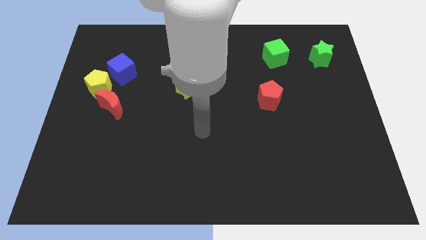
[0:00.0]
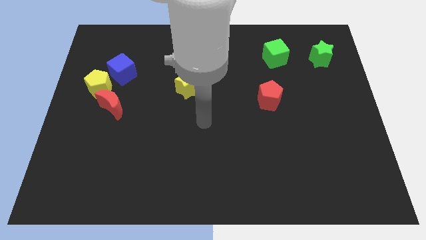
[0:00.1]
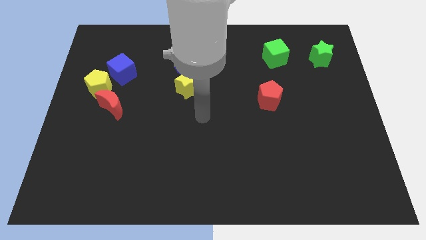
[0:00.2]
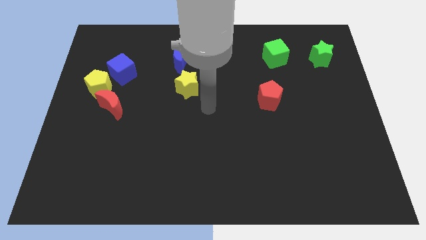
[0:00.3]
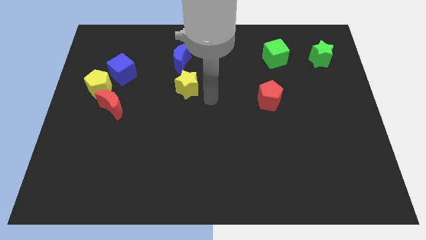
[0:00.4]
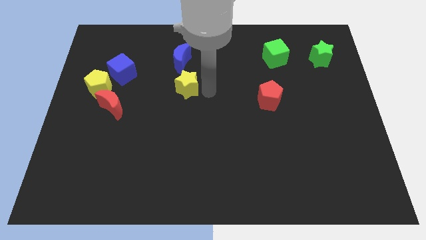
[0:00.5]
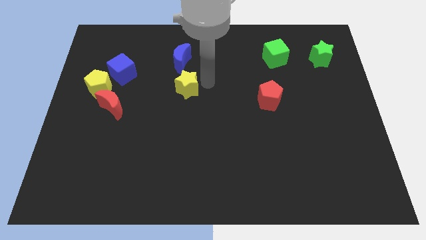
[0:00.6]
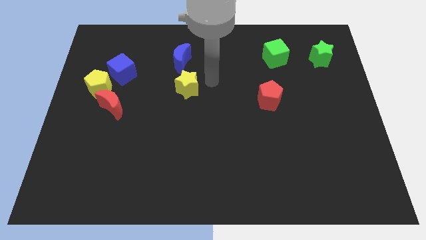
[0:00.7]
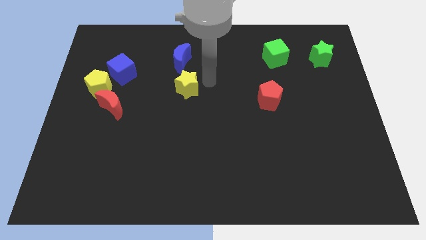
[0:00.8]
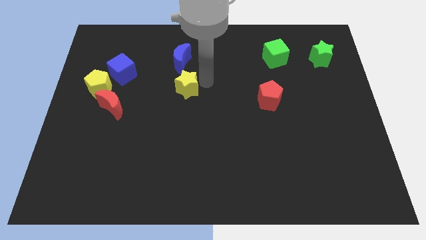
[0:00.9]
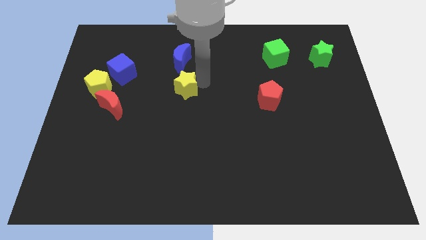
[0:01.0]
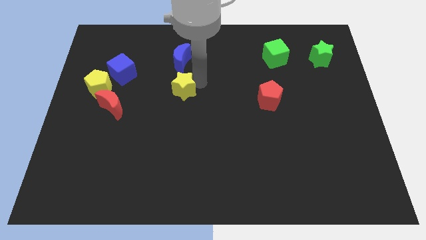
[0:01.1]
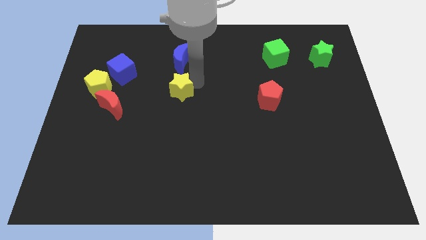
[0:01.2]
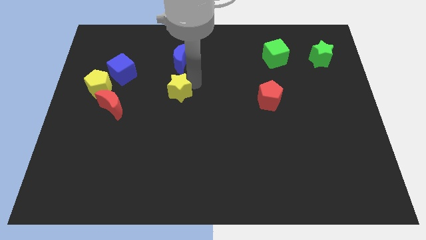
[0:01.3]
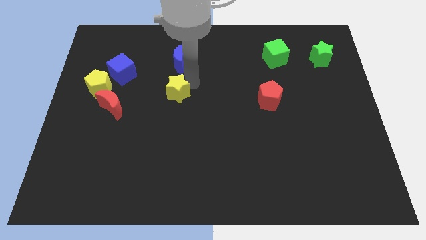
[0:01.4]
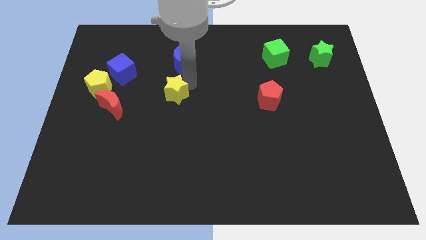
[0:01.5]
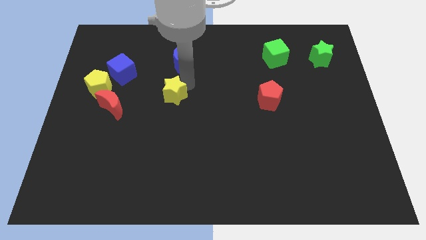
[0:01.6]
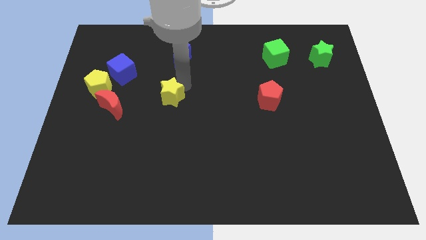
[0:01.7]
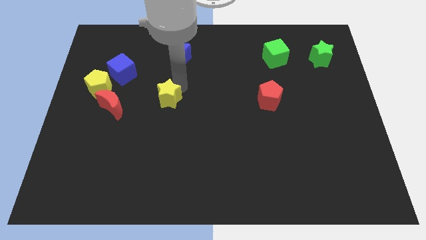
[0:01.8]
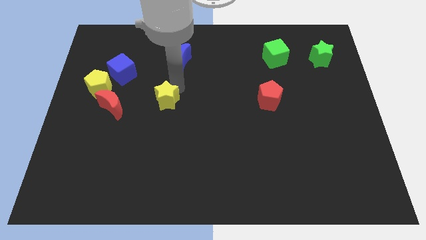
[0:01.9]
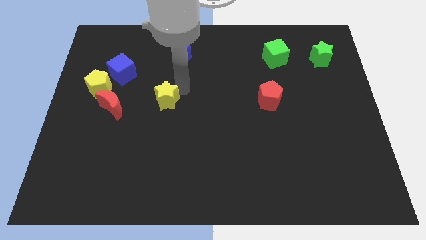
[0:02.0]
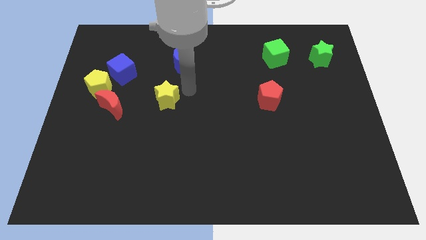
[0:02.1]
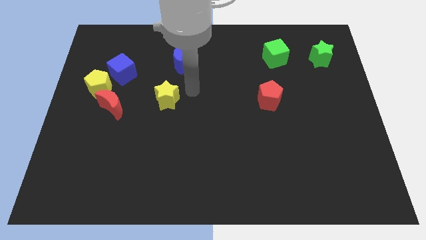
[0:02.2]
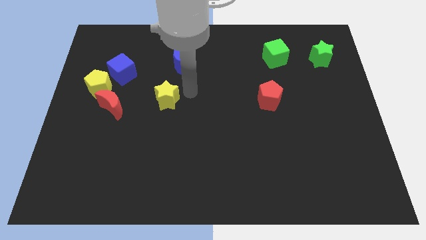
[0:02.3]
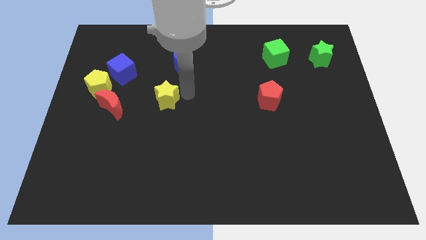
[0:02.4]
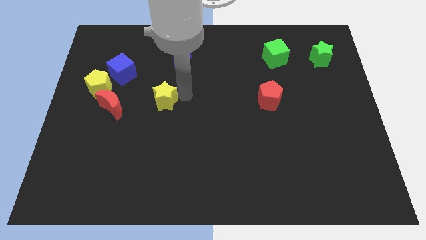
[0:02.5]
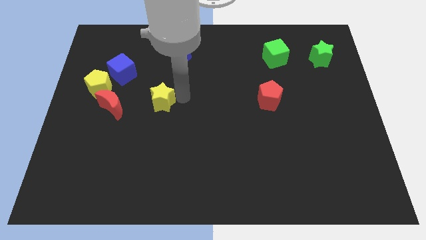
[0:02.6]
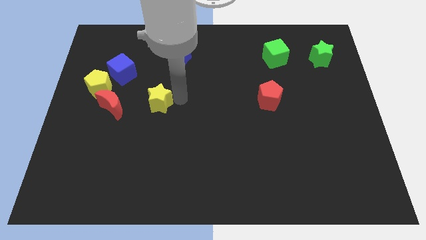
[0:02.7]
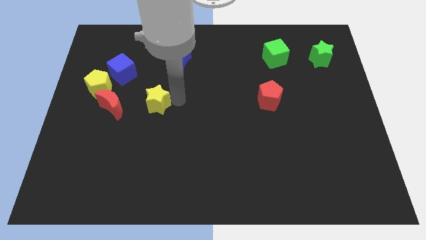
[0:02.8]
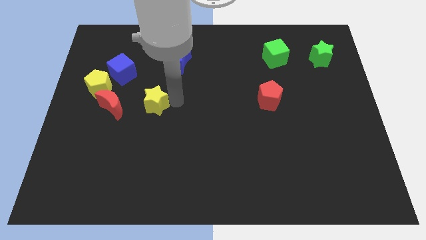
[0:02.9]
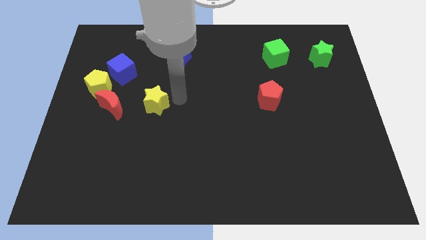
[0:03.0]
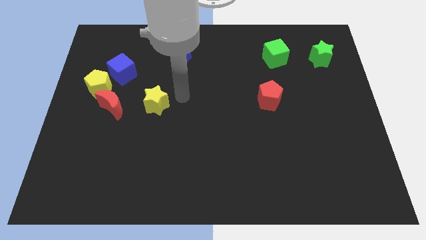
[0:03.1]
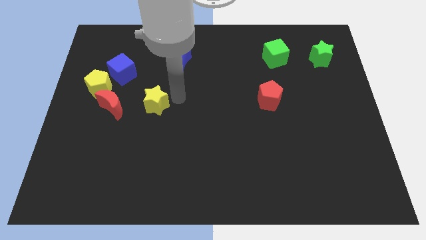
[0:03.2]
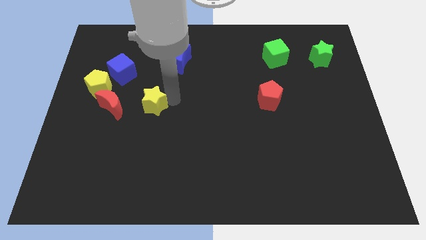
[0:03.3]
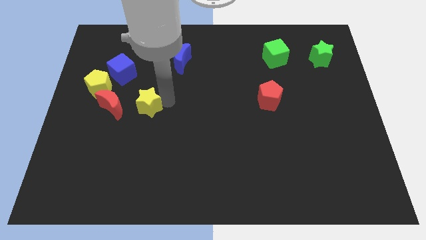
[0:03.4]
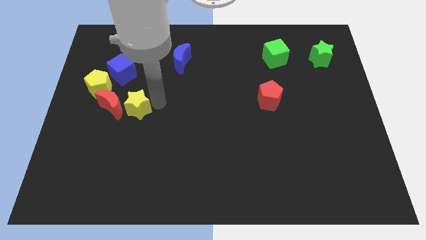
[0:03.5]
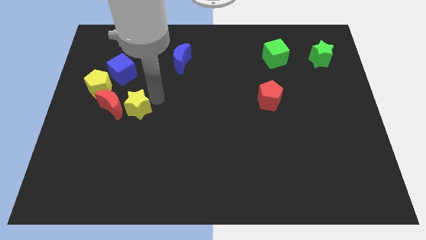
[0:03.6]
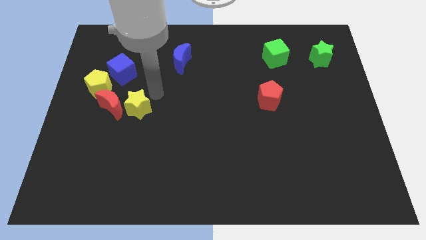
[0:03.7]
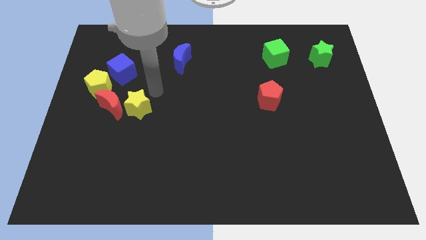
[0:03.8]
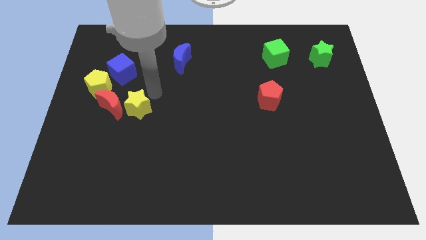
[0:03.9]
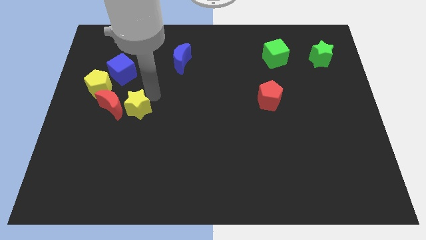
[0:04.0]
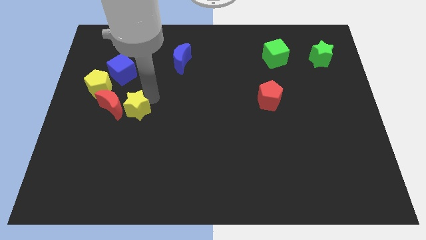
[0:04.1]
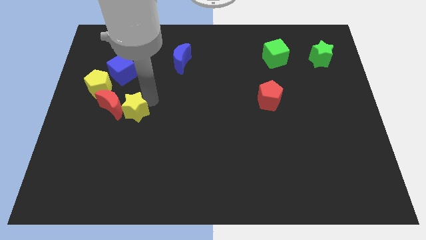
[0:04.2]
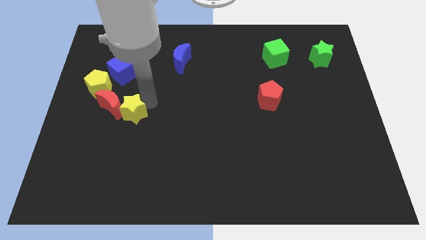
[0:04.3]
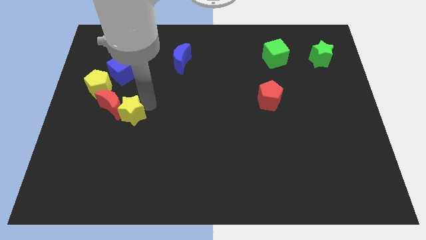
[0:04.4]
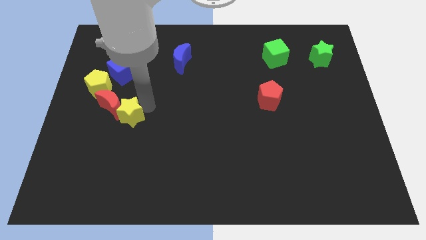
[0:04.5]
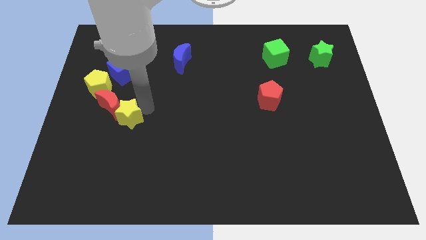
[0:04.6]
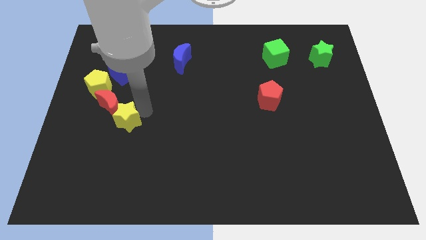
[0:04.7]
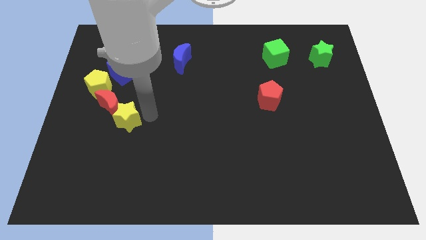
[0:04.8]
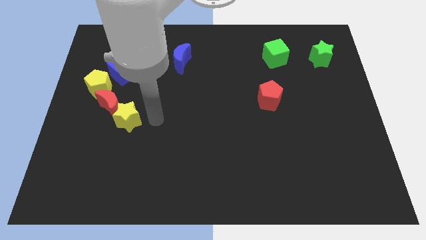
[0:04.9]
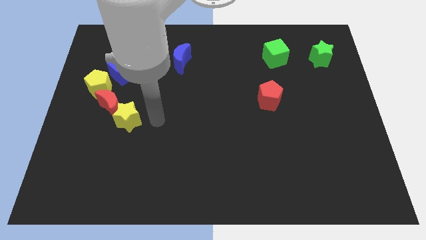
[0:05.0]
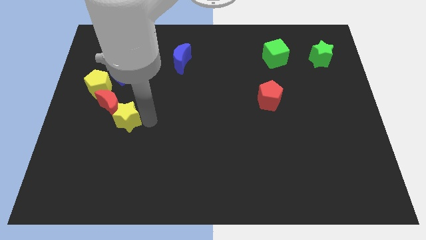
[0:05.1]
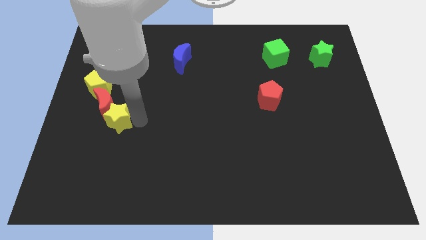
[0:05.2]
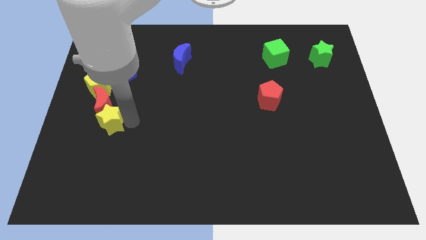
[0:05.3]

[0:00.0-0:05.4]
push the yellow star to the bottom side of the yellow pentagon

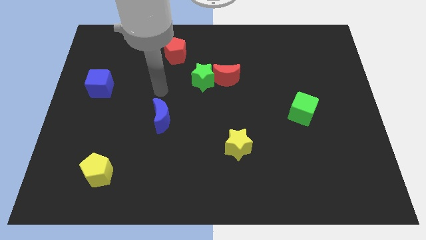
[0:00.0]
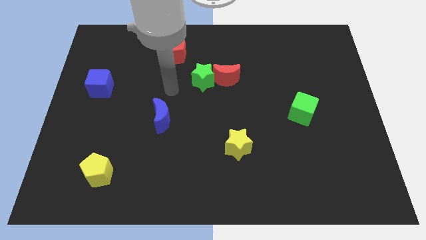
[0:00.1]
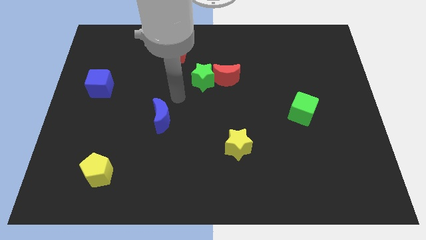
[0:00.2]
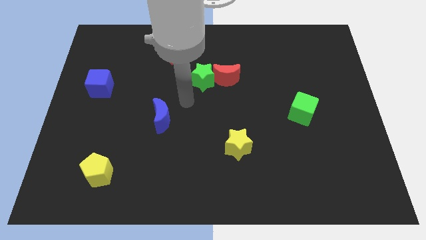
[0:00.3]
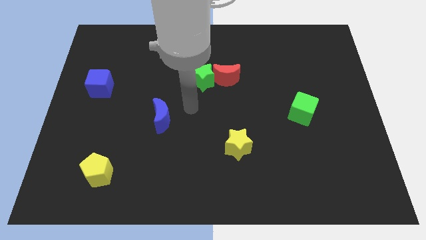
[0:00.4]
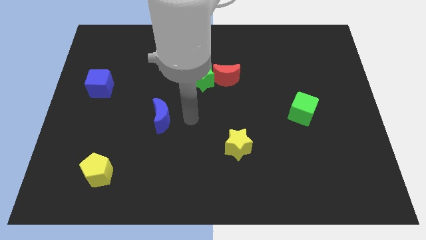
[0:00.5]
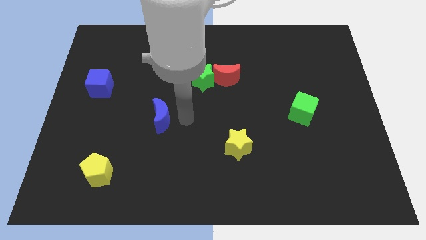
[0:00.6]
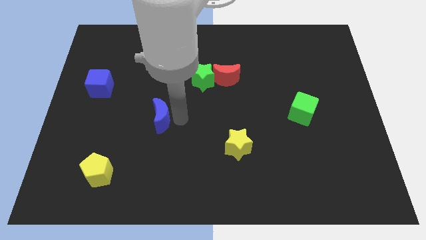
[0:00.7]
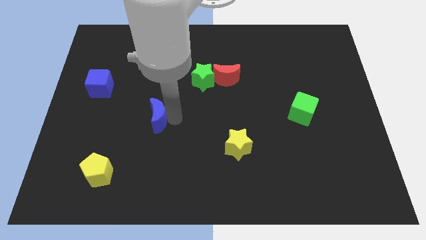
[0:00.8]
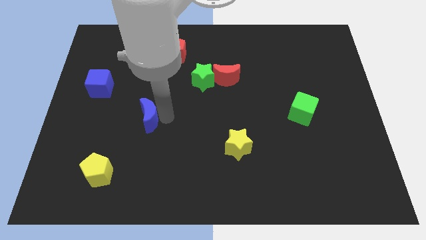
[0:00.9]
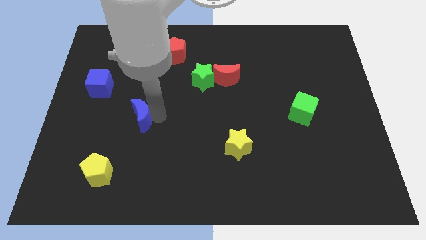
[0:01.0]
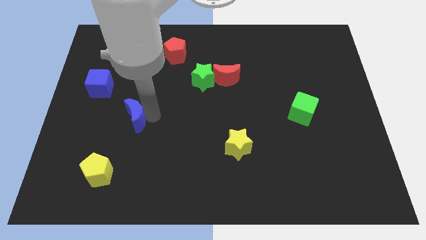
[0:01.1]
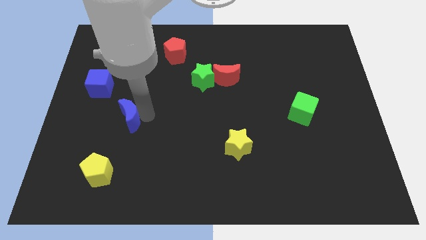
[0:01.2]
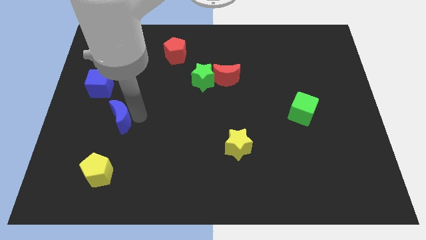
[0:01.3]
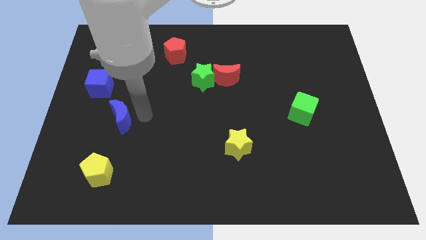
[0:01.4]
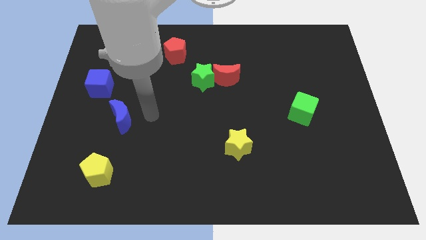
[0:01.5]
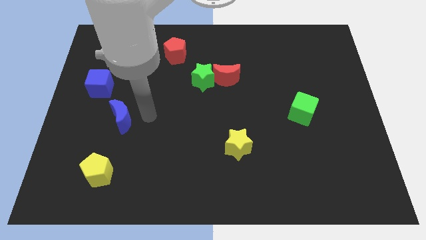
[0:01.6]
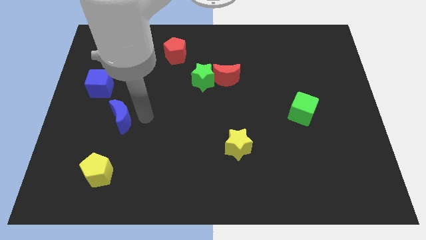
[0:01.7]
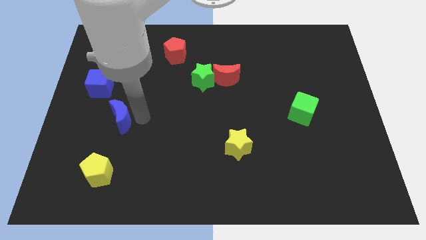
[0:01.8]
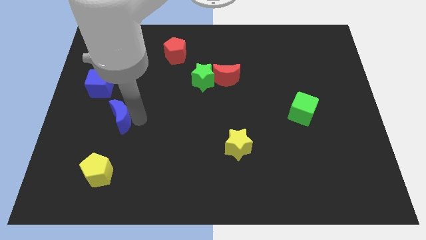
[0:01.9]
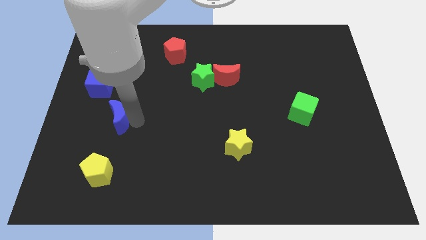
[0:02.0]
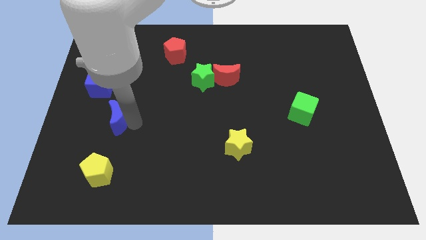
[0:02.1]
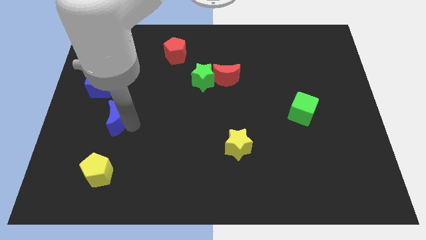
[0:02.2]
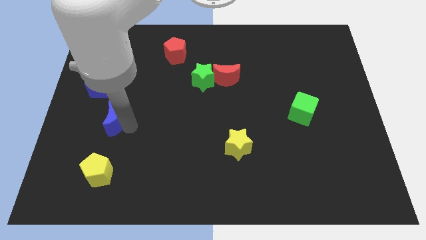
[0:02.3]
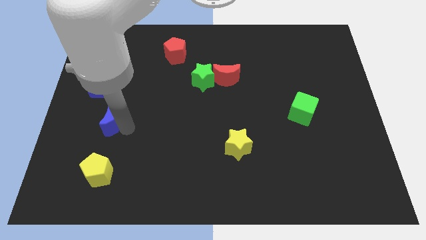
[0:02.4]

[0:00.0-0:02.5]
push the blue moon to the bottom side of the blue cube
